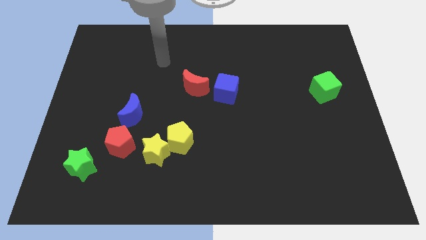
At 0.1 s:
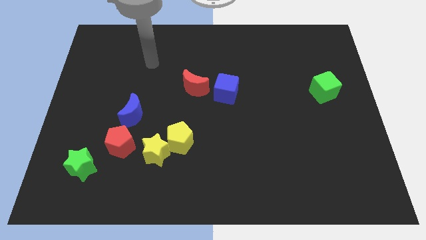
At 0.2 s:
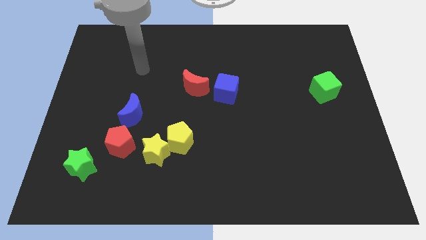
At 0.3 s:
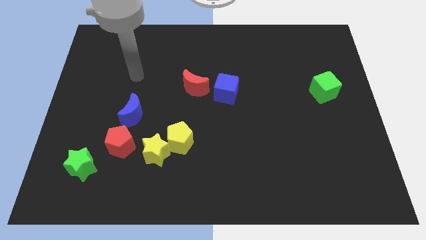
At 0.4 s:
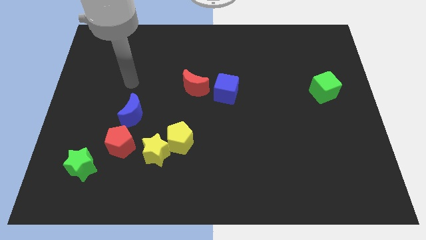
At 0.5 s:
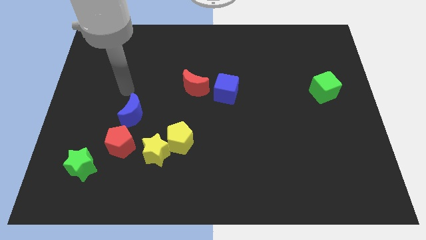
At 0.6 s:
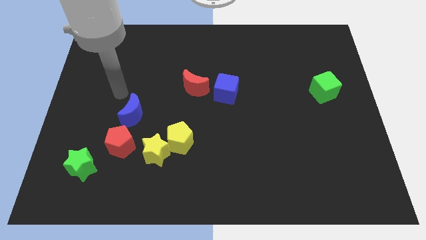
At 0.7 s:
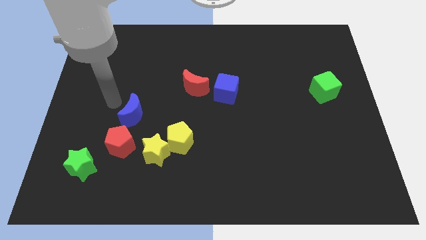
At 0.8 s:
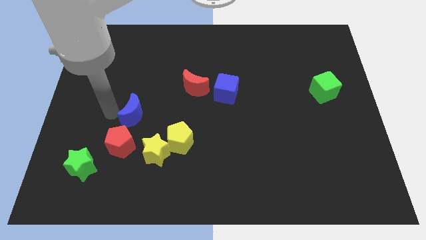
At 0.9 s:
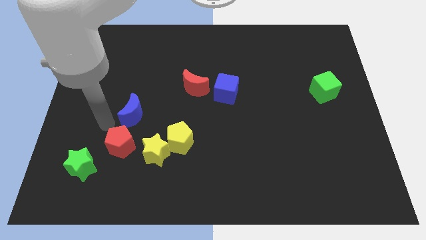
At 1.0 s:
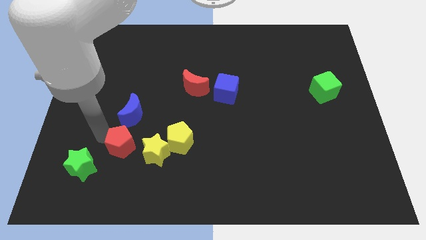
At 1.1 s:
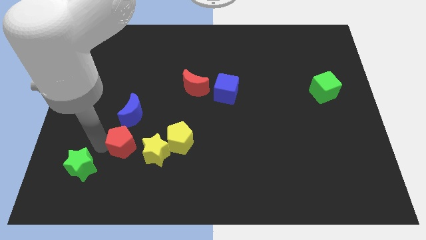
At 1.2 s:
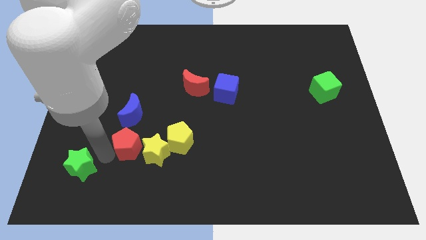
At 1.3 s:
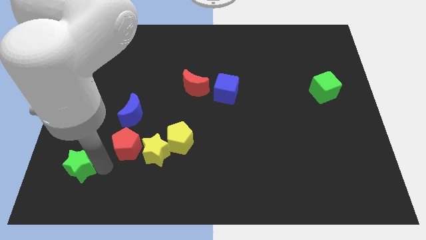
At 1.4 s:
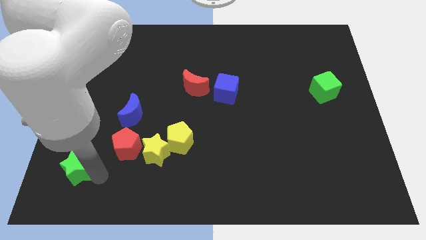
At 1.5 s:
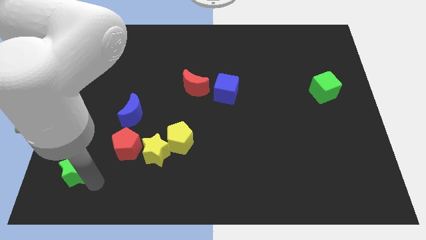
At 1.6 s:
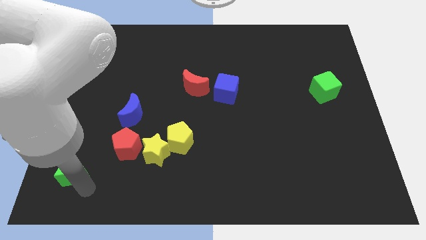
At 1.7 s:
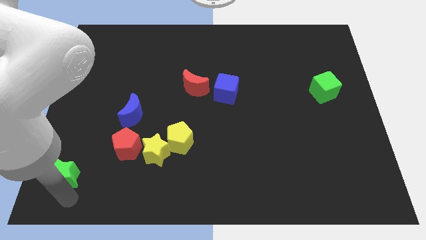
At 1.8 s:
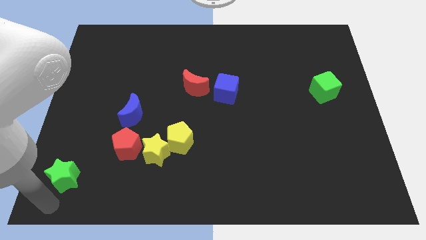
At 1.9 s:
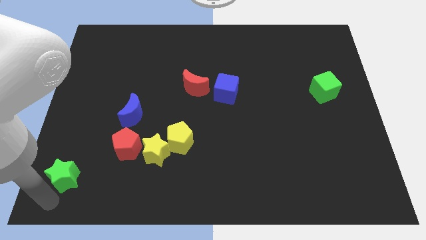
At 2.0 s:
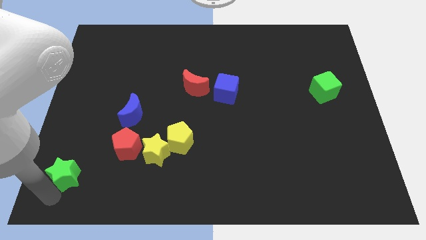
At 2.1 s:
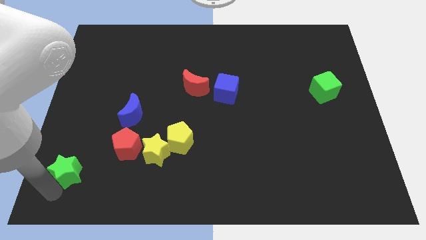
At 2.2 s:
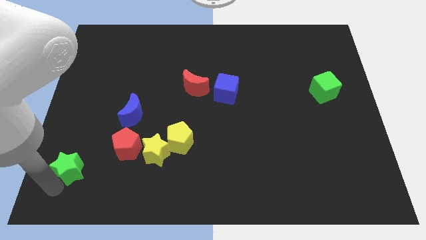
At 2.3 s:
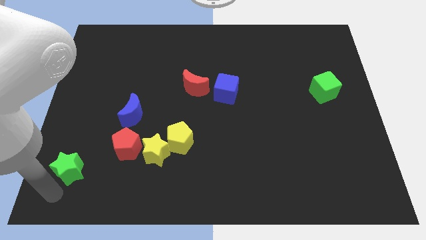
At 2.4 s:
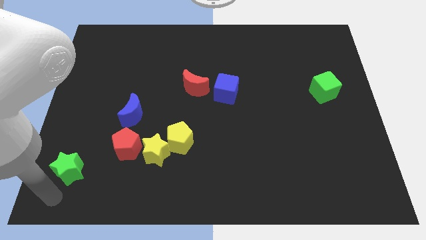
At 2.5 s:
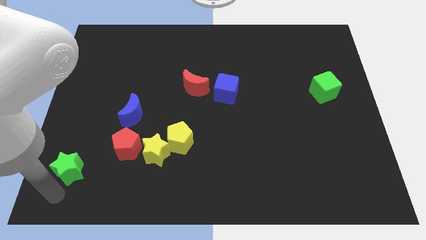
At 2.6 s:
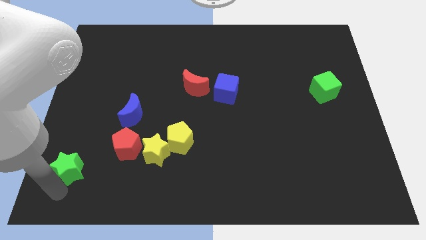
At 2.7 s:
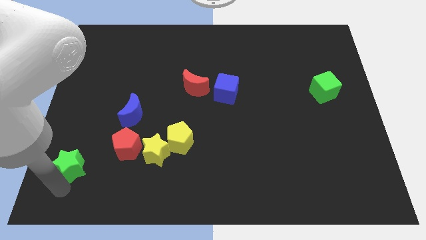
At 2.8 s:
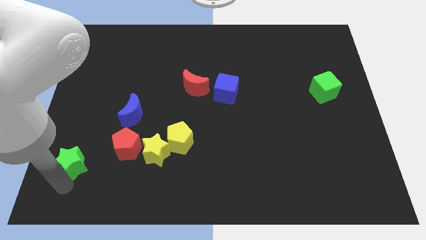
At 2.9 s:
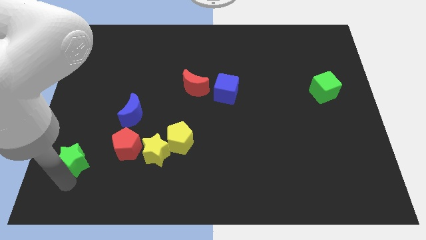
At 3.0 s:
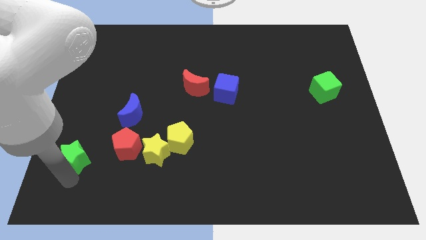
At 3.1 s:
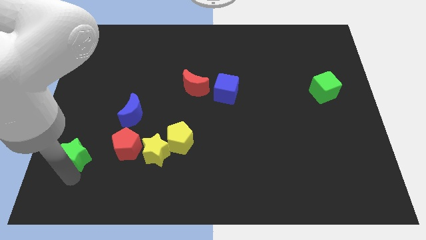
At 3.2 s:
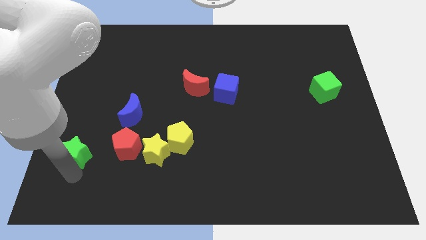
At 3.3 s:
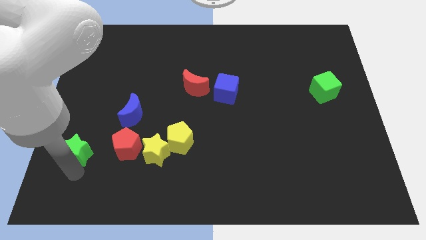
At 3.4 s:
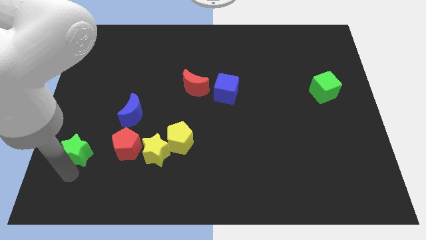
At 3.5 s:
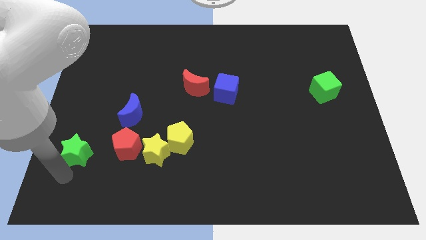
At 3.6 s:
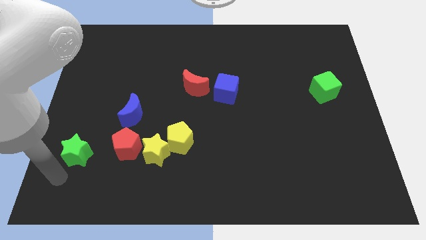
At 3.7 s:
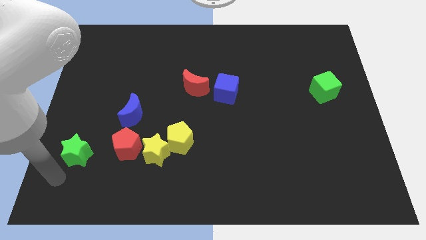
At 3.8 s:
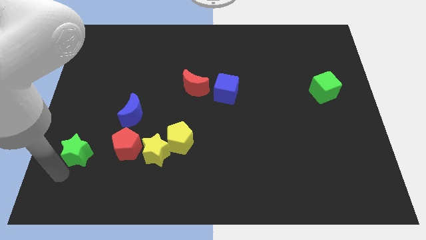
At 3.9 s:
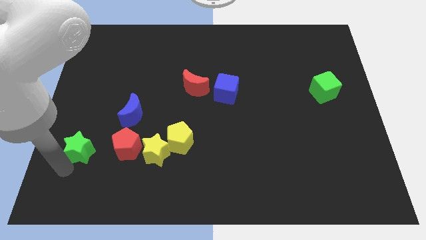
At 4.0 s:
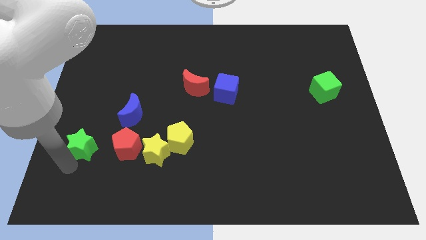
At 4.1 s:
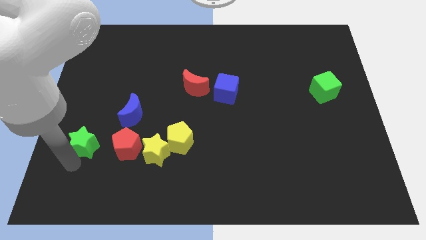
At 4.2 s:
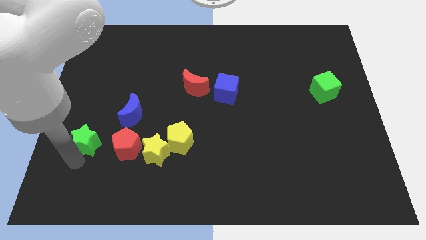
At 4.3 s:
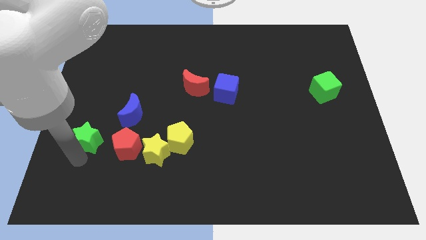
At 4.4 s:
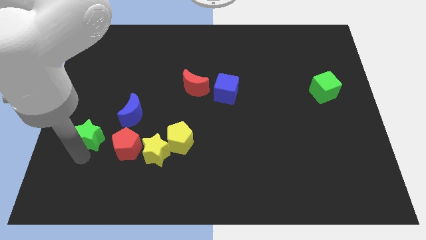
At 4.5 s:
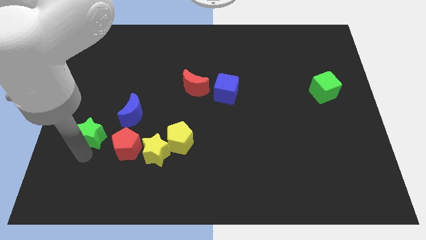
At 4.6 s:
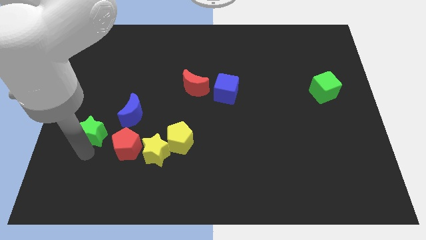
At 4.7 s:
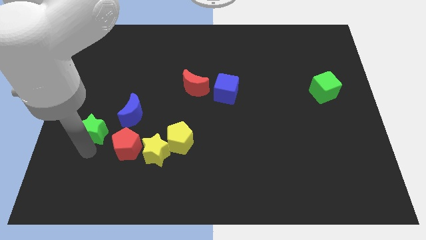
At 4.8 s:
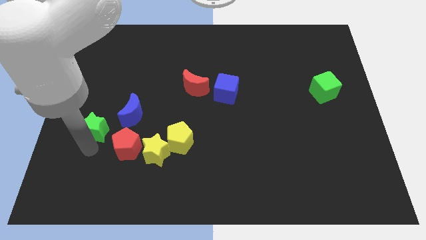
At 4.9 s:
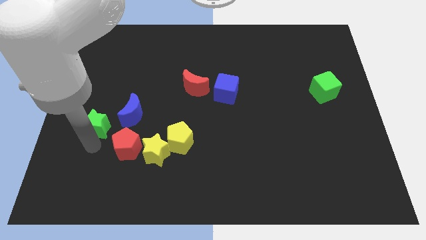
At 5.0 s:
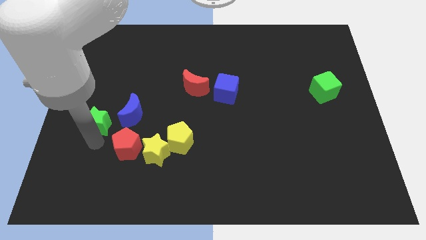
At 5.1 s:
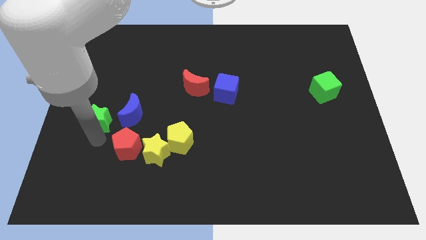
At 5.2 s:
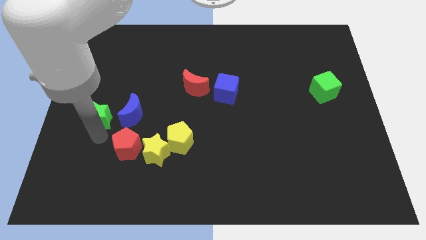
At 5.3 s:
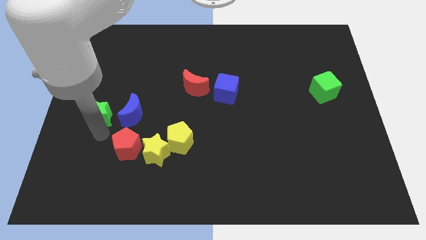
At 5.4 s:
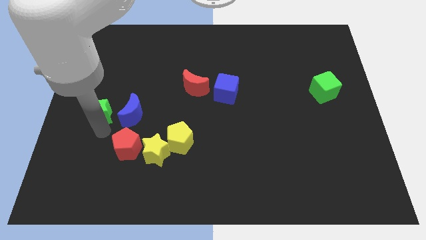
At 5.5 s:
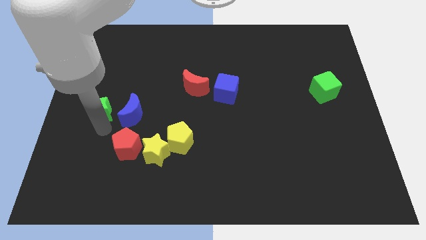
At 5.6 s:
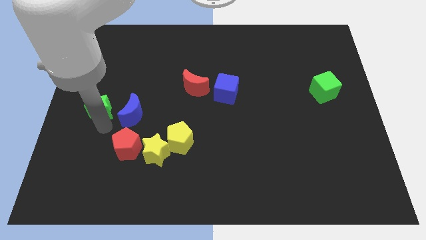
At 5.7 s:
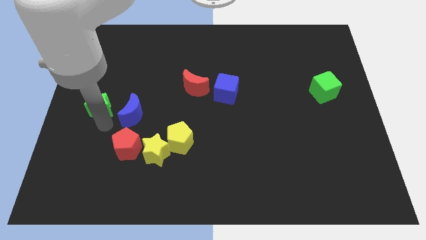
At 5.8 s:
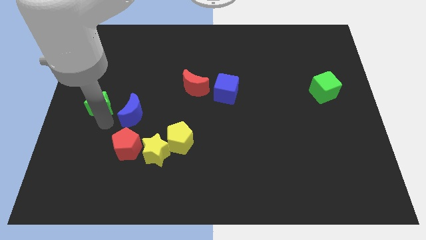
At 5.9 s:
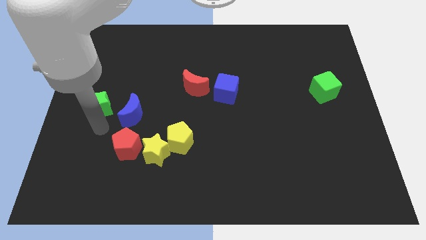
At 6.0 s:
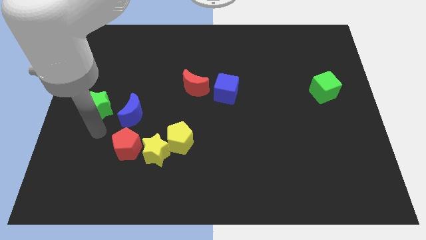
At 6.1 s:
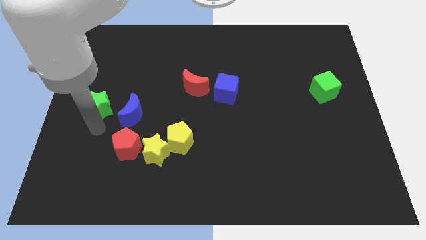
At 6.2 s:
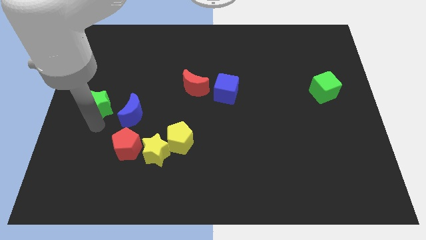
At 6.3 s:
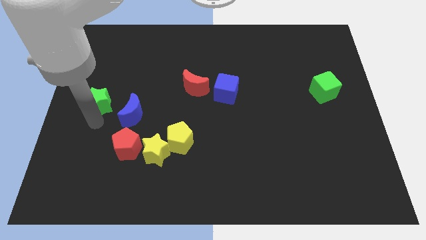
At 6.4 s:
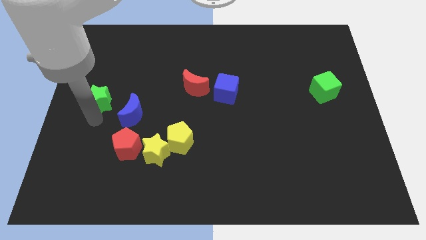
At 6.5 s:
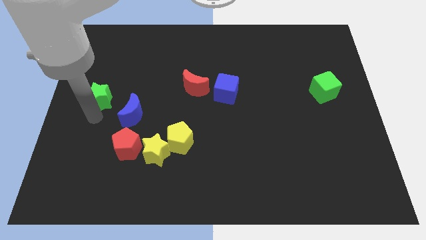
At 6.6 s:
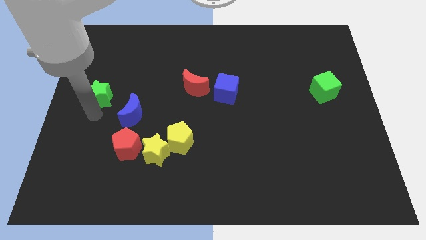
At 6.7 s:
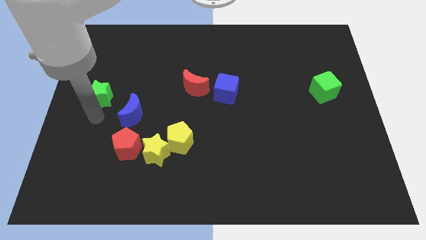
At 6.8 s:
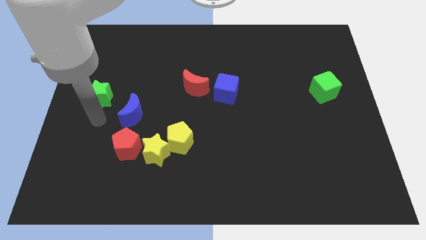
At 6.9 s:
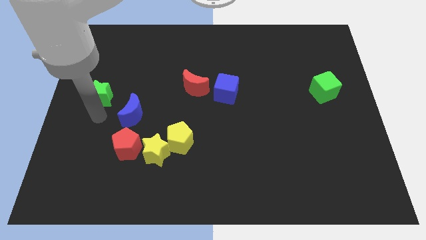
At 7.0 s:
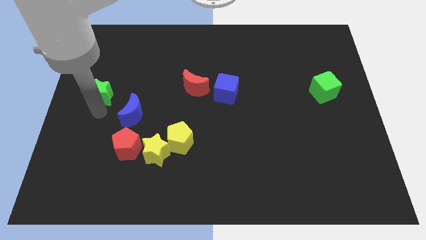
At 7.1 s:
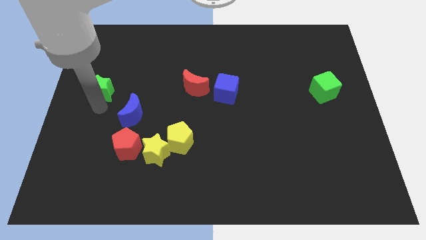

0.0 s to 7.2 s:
slide the green star up

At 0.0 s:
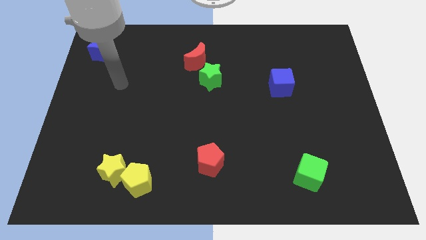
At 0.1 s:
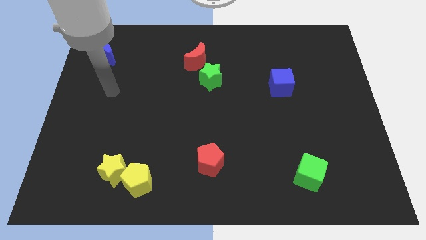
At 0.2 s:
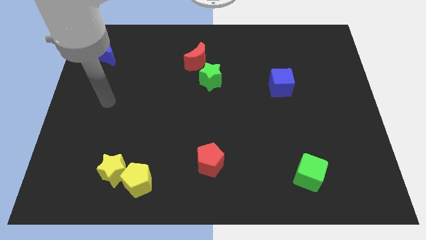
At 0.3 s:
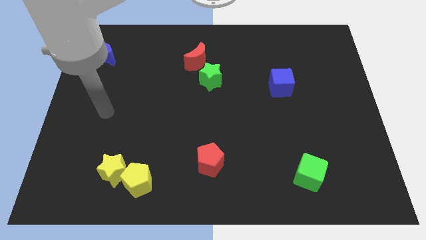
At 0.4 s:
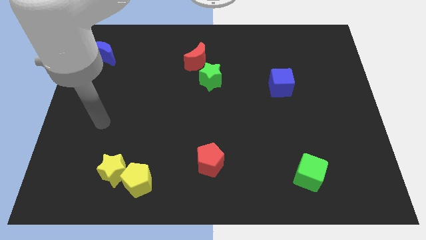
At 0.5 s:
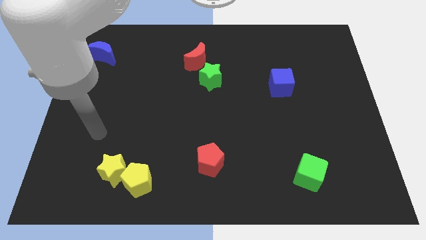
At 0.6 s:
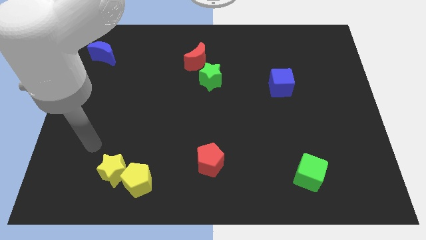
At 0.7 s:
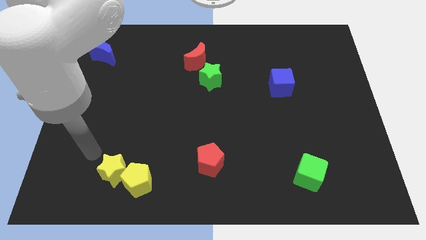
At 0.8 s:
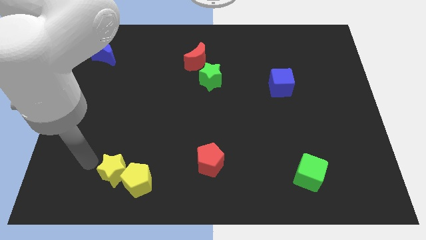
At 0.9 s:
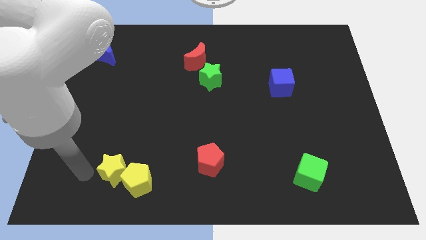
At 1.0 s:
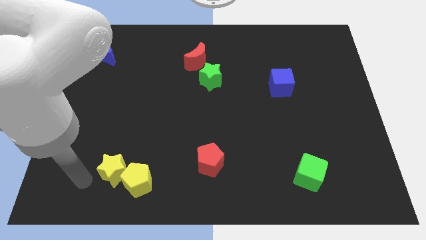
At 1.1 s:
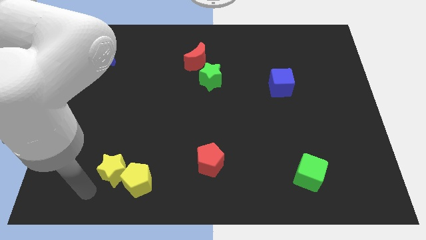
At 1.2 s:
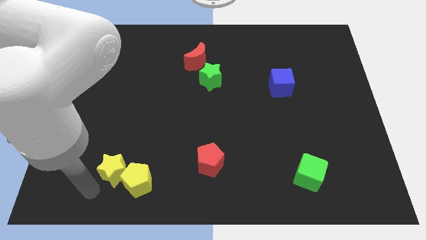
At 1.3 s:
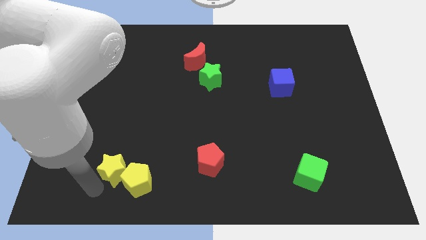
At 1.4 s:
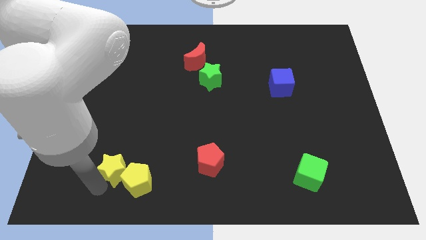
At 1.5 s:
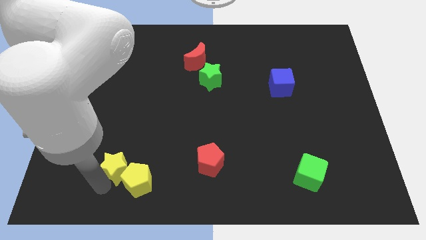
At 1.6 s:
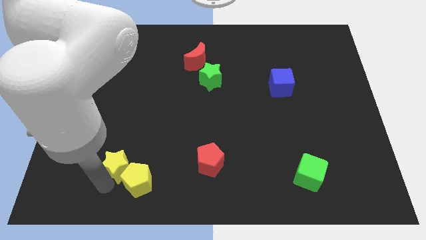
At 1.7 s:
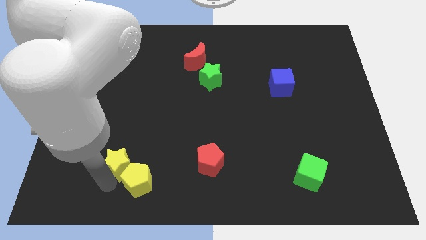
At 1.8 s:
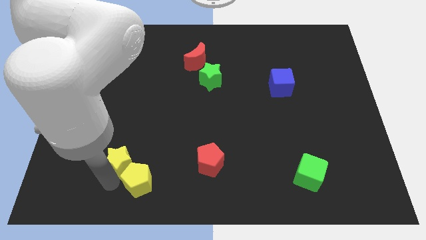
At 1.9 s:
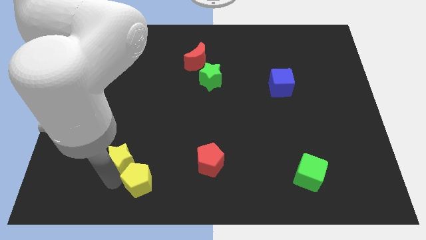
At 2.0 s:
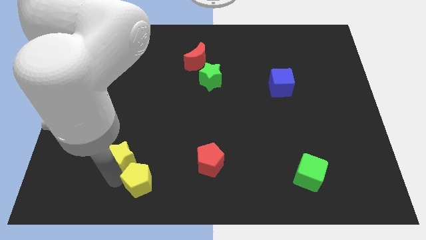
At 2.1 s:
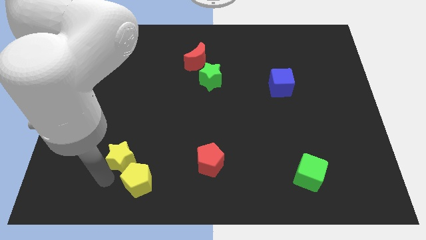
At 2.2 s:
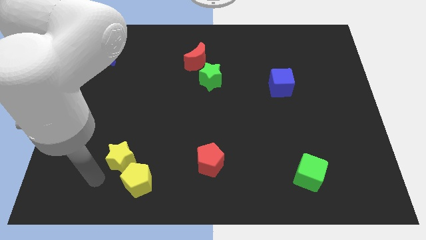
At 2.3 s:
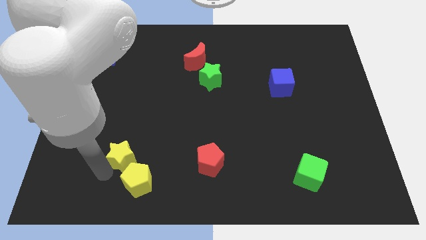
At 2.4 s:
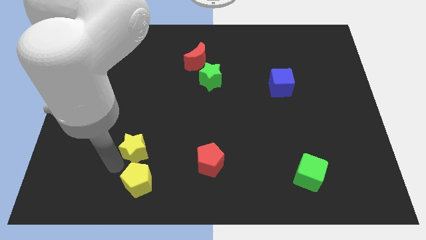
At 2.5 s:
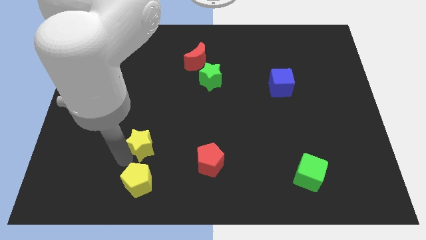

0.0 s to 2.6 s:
slide the yellow star upwards and then to the right a bit
